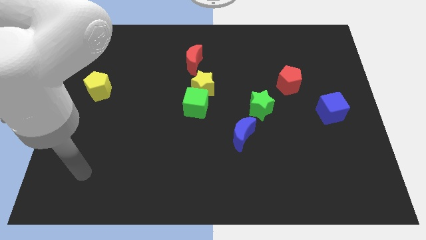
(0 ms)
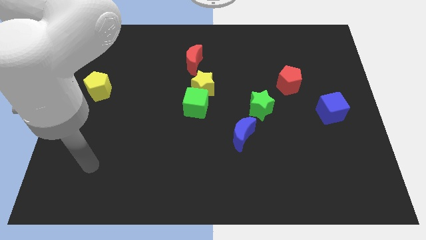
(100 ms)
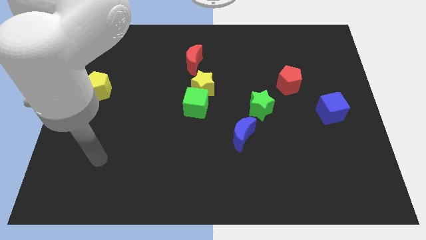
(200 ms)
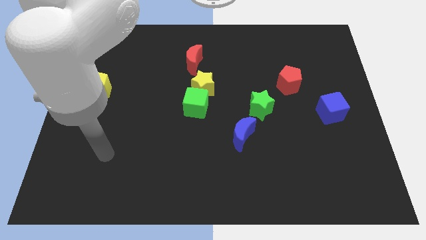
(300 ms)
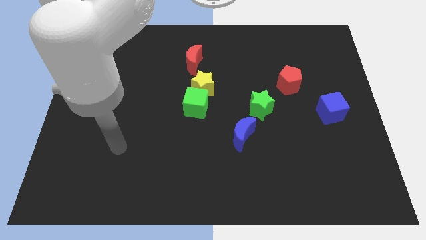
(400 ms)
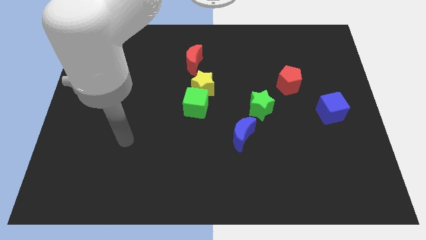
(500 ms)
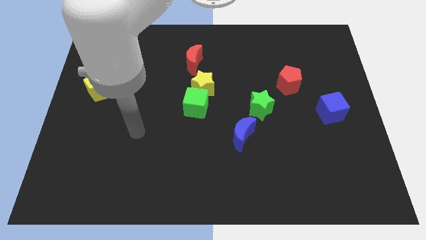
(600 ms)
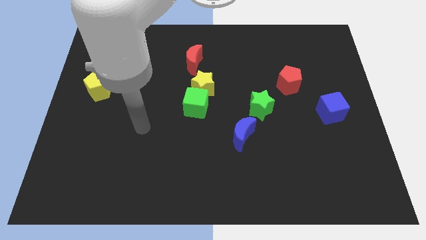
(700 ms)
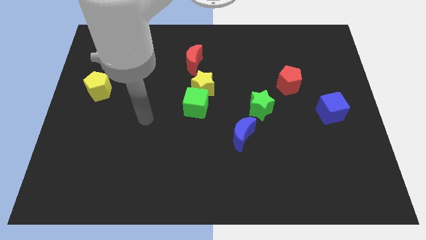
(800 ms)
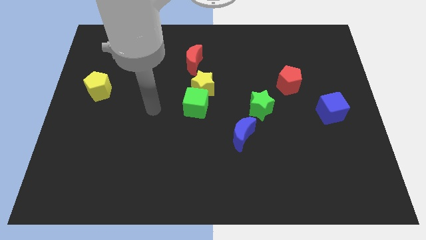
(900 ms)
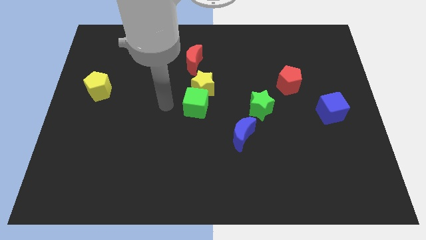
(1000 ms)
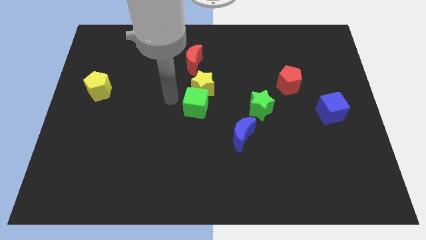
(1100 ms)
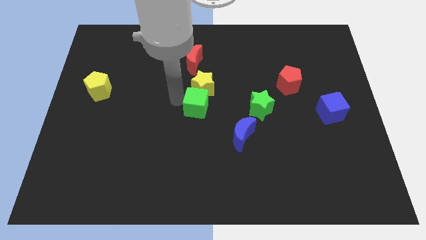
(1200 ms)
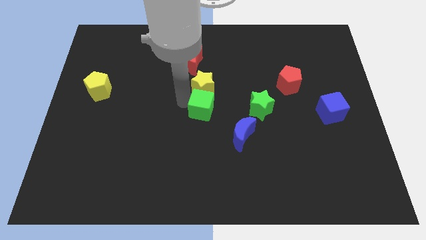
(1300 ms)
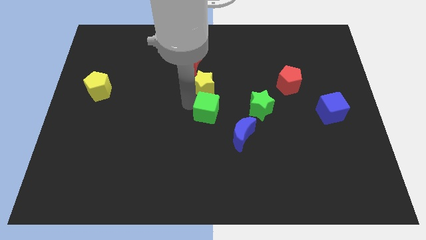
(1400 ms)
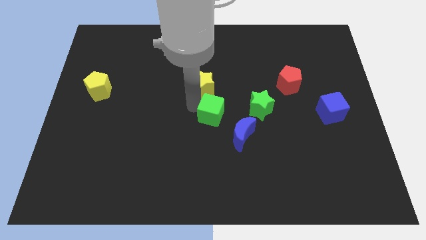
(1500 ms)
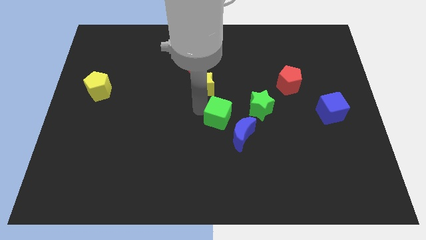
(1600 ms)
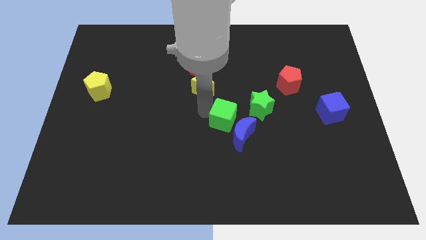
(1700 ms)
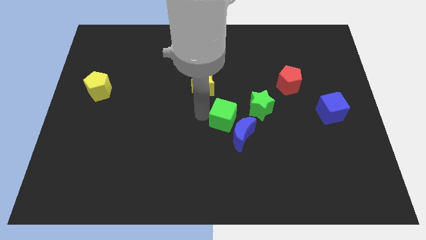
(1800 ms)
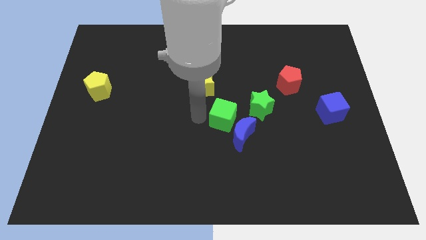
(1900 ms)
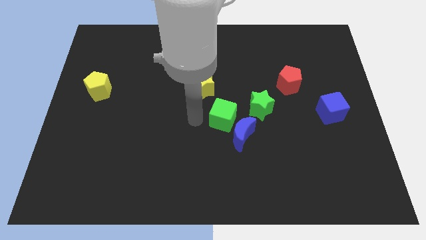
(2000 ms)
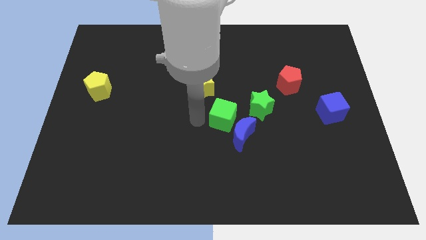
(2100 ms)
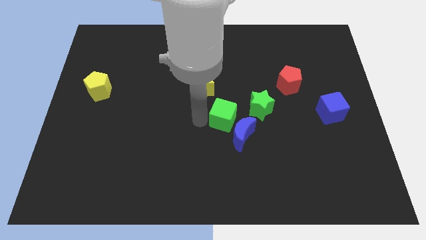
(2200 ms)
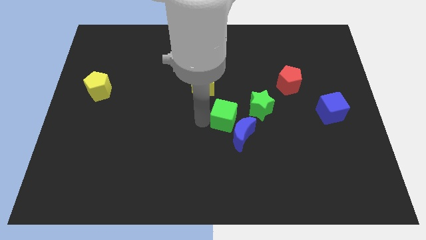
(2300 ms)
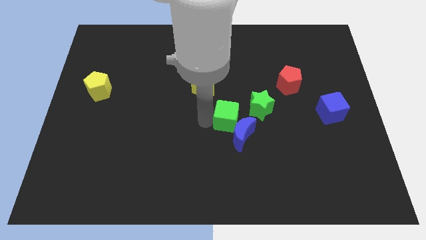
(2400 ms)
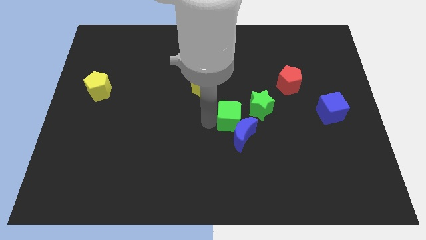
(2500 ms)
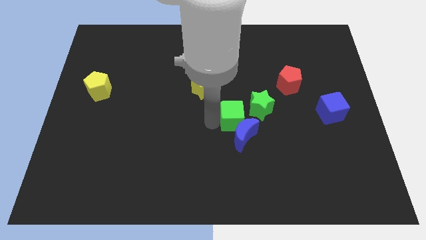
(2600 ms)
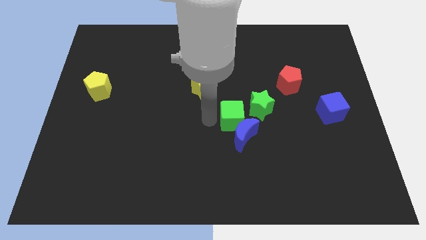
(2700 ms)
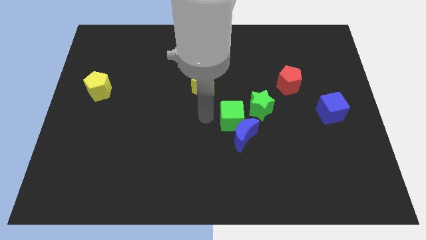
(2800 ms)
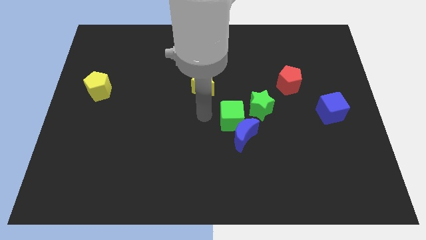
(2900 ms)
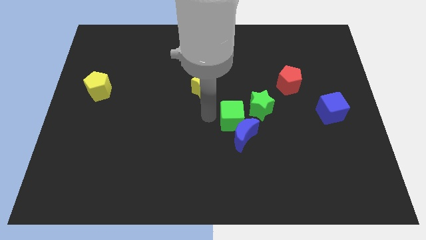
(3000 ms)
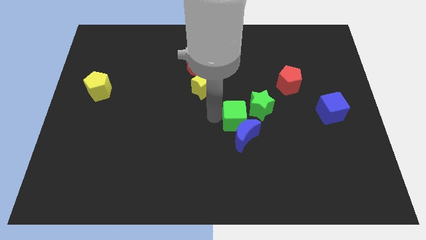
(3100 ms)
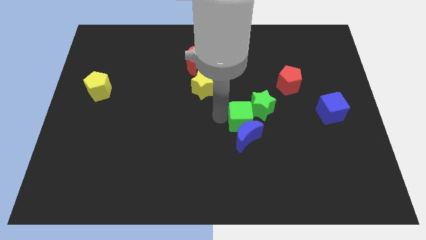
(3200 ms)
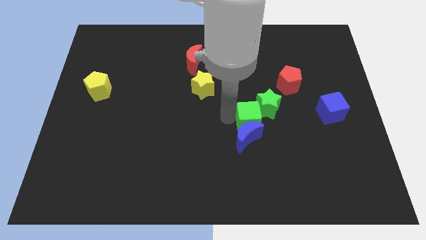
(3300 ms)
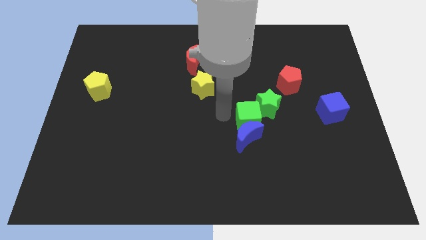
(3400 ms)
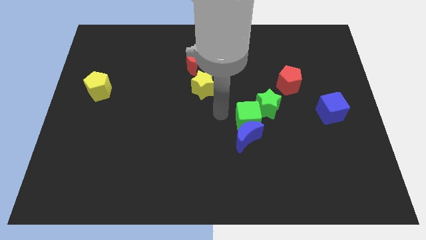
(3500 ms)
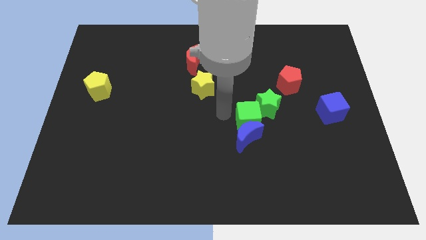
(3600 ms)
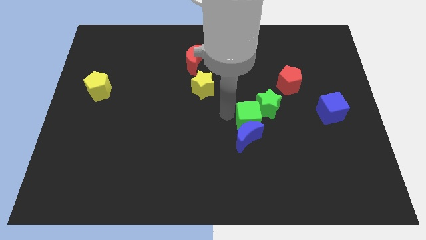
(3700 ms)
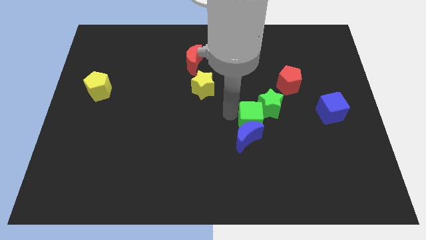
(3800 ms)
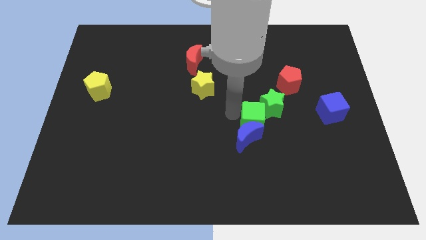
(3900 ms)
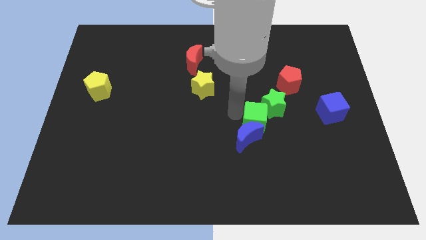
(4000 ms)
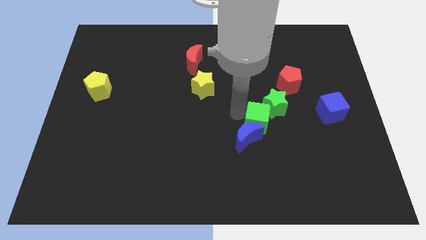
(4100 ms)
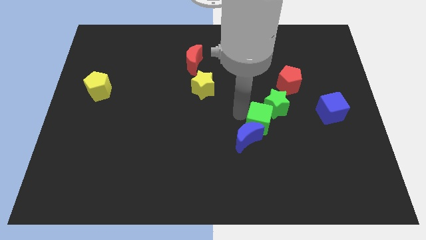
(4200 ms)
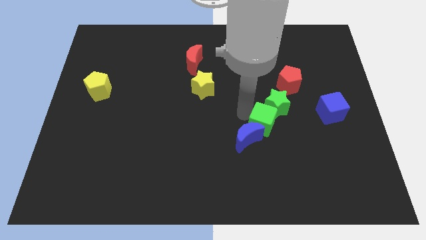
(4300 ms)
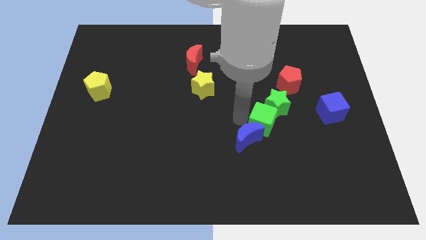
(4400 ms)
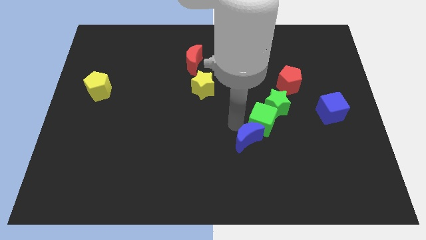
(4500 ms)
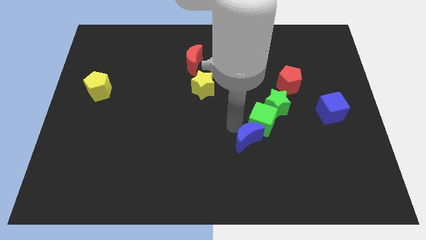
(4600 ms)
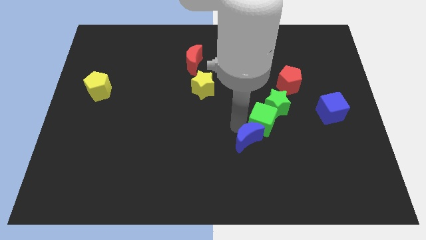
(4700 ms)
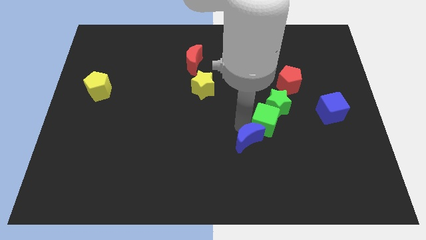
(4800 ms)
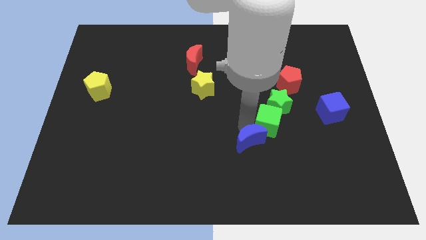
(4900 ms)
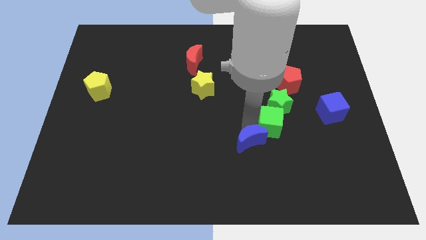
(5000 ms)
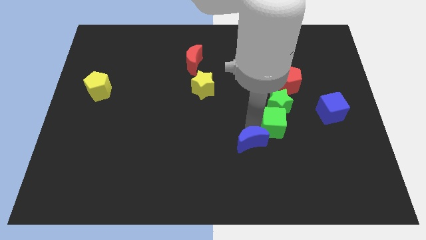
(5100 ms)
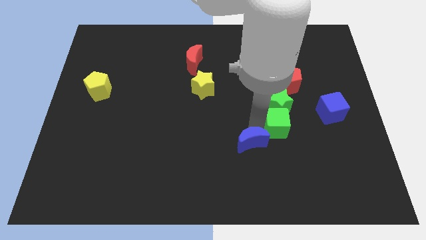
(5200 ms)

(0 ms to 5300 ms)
put the green cube to the bottom of the red pentagon

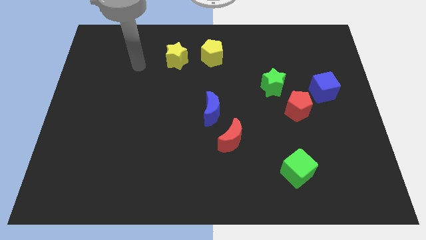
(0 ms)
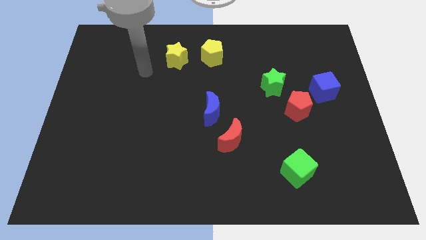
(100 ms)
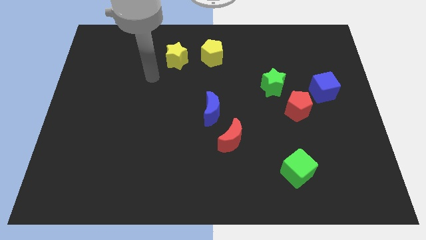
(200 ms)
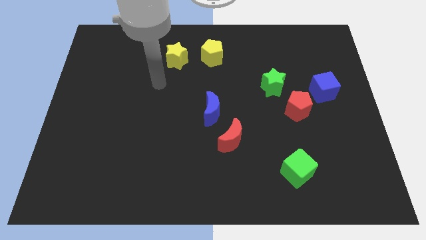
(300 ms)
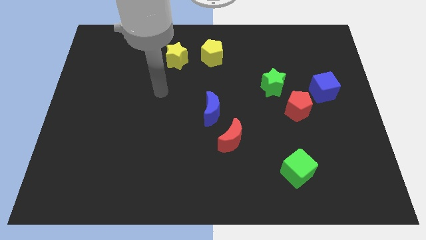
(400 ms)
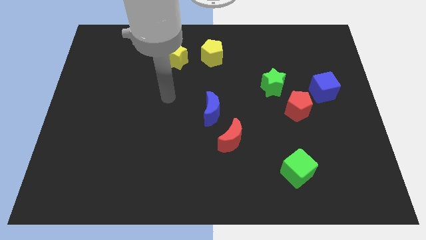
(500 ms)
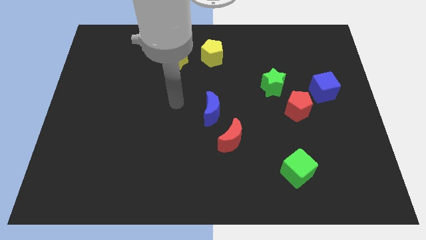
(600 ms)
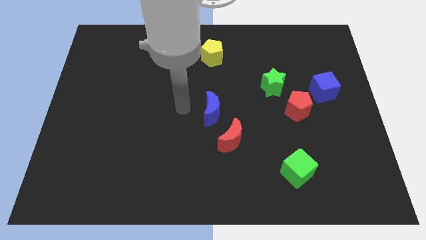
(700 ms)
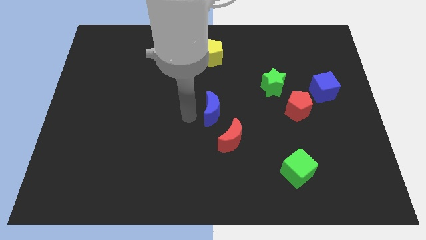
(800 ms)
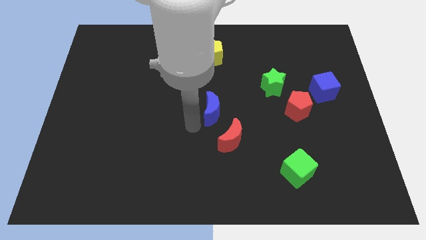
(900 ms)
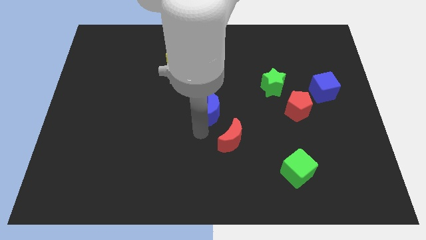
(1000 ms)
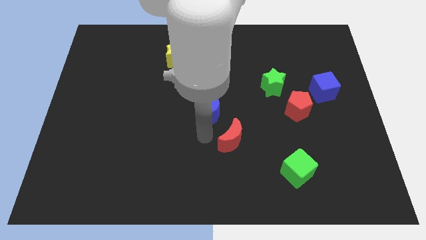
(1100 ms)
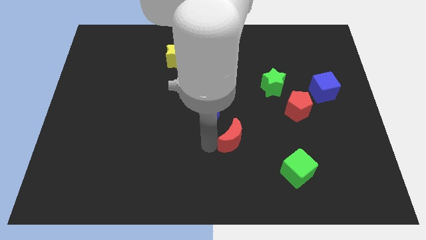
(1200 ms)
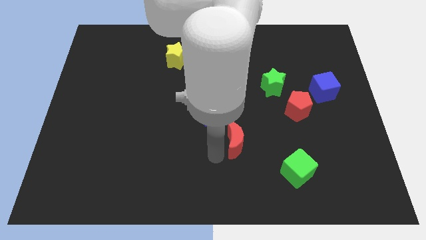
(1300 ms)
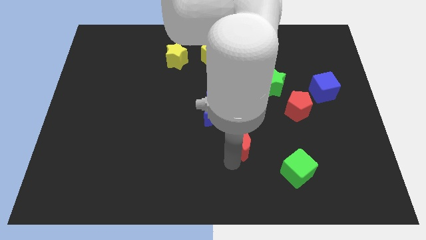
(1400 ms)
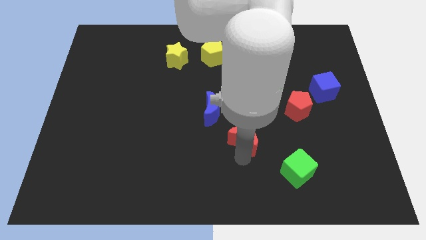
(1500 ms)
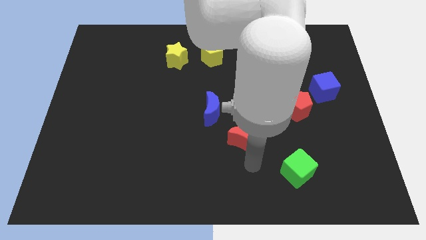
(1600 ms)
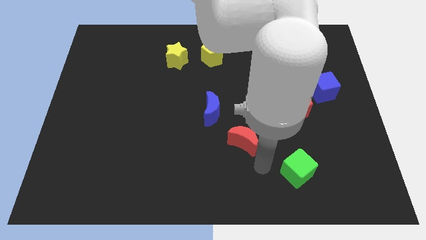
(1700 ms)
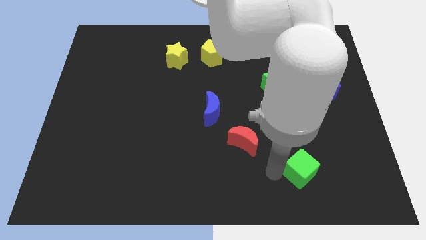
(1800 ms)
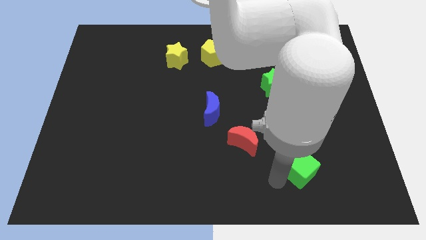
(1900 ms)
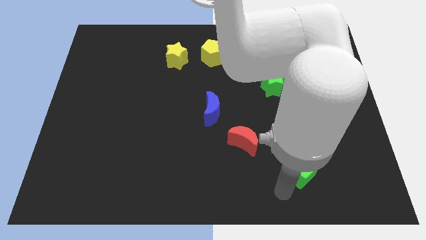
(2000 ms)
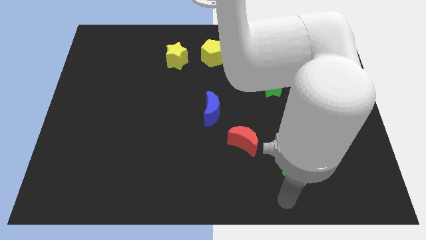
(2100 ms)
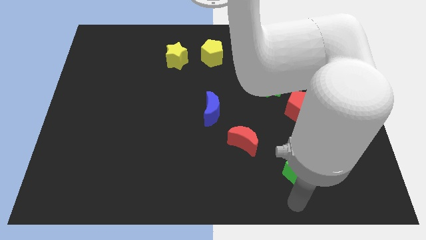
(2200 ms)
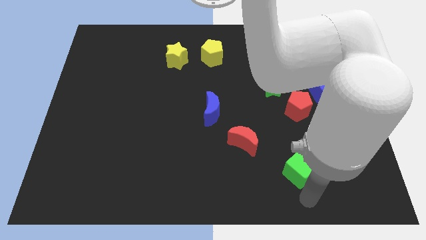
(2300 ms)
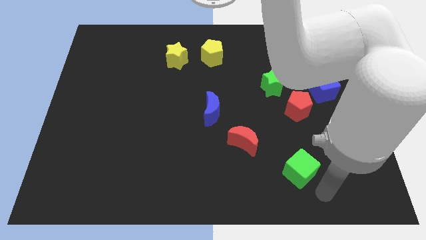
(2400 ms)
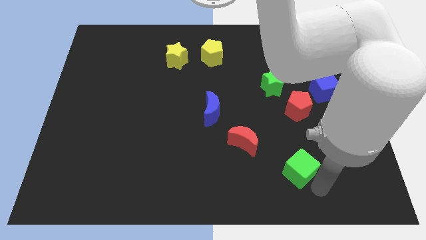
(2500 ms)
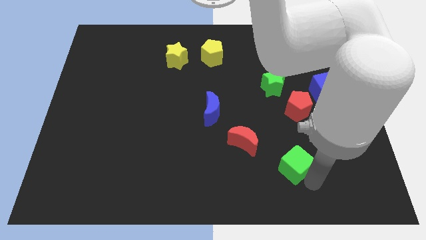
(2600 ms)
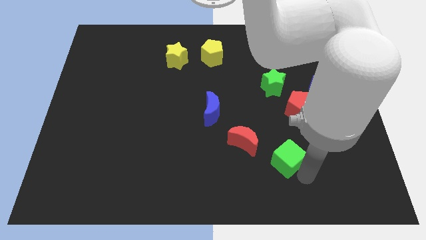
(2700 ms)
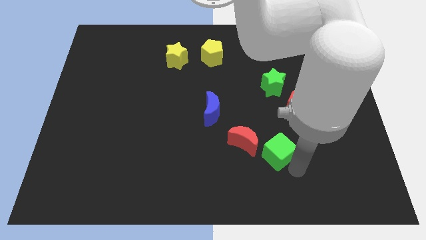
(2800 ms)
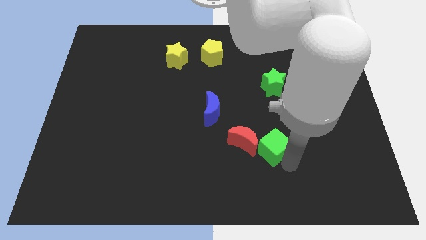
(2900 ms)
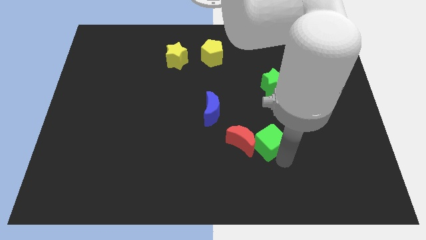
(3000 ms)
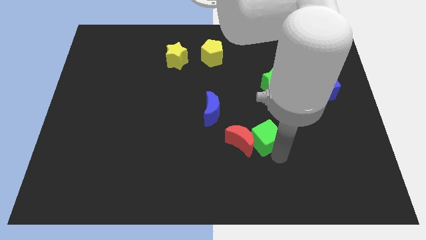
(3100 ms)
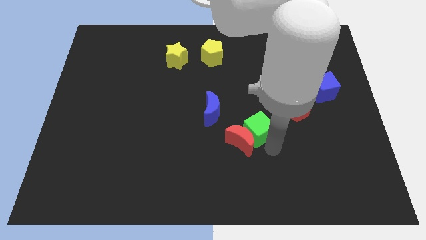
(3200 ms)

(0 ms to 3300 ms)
put the green cube to the top side of the red moon

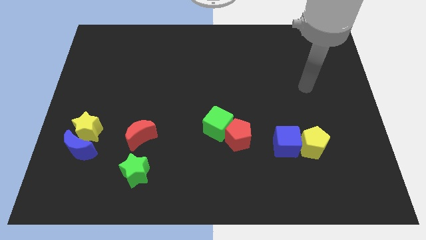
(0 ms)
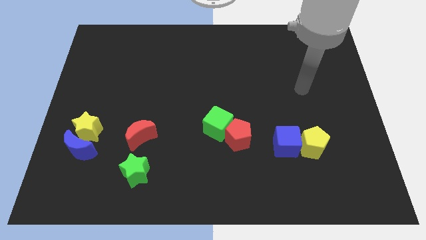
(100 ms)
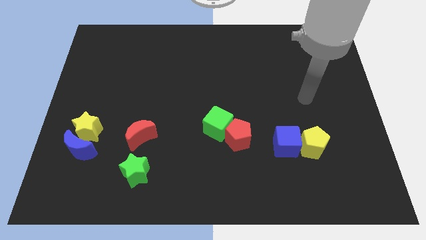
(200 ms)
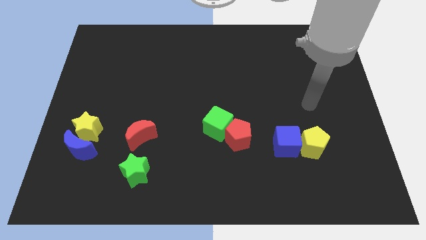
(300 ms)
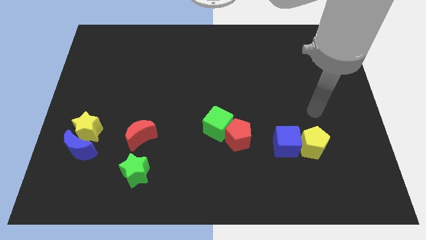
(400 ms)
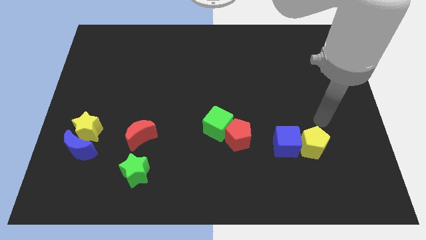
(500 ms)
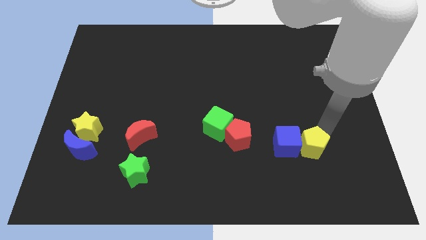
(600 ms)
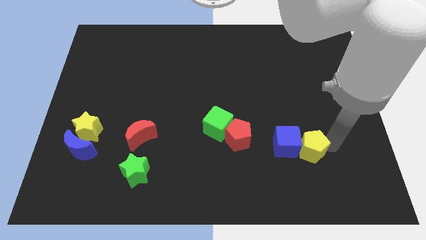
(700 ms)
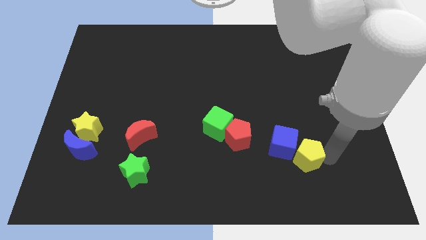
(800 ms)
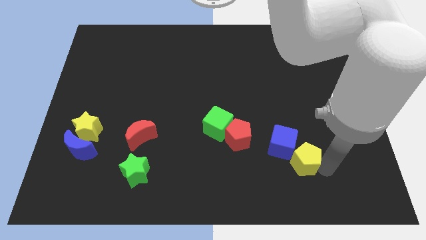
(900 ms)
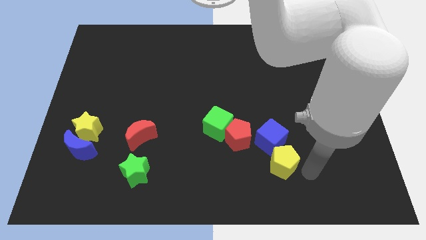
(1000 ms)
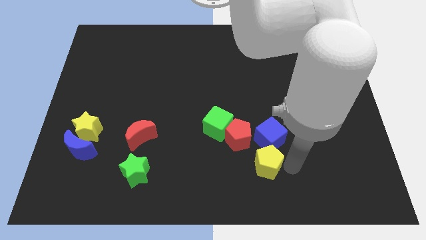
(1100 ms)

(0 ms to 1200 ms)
slide the blue cube to the top right of the red pentagon
